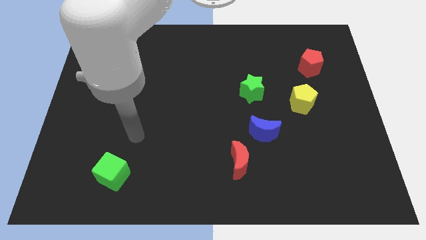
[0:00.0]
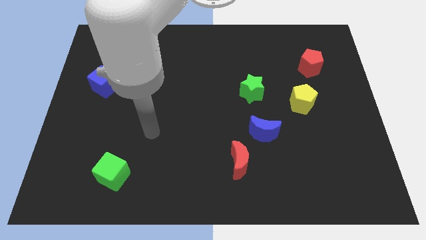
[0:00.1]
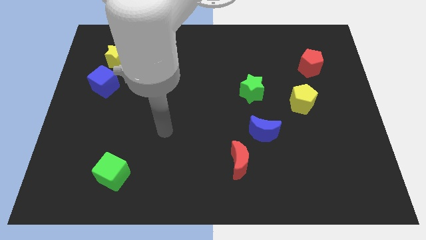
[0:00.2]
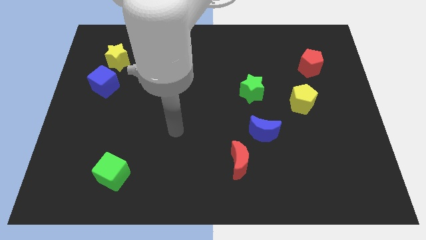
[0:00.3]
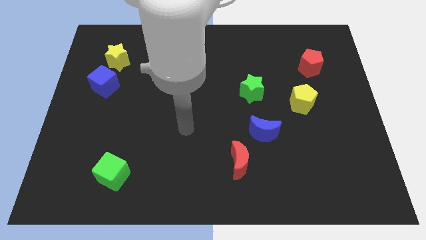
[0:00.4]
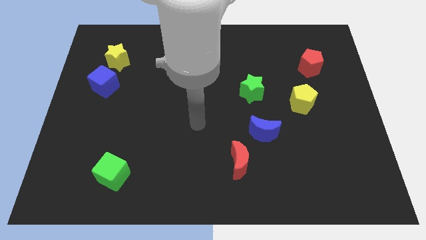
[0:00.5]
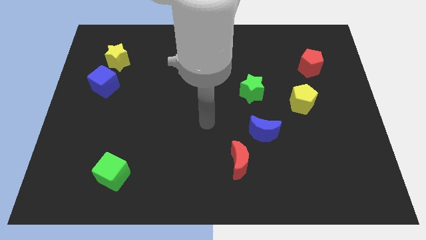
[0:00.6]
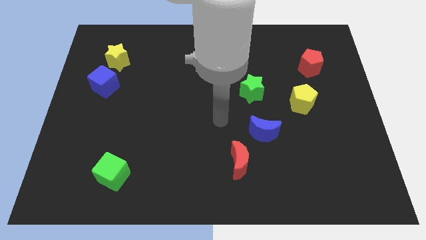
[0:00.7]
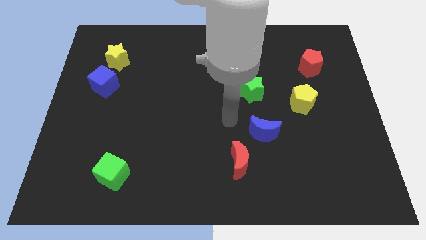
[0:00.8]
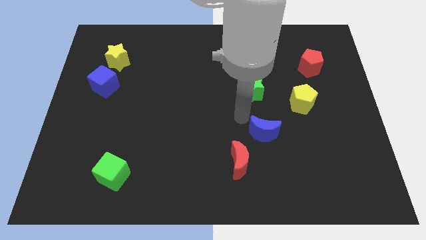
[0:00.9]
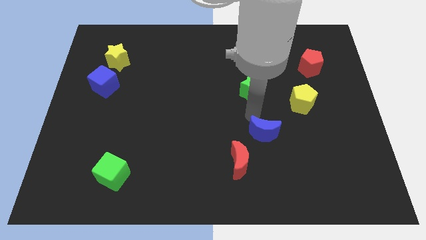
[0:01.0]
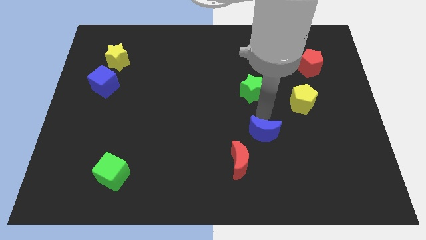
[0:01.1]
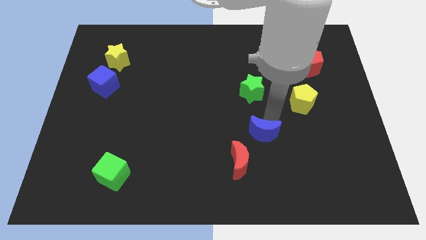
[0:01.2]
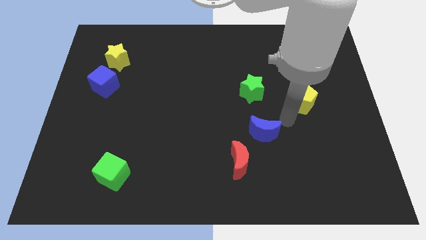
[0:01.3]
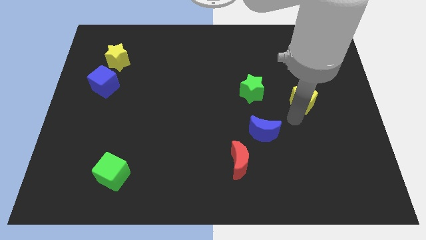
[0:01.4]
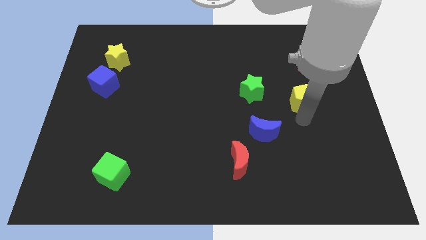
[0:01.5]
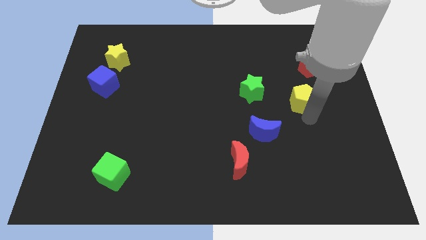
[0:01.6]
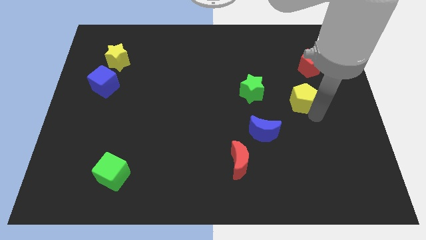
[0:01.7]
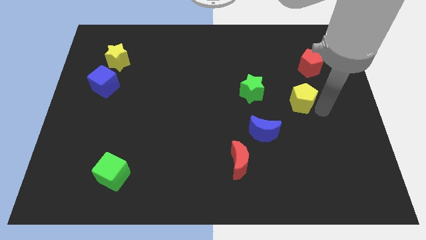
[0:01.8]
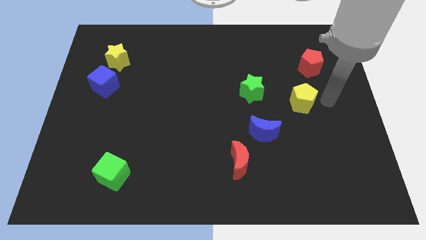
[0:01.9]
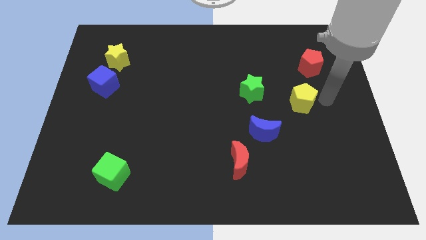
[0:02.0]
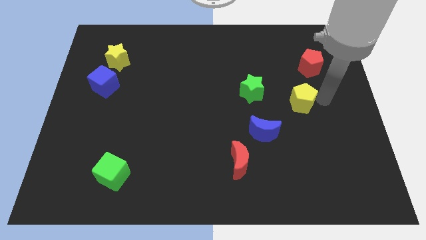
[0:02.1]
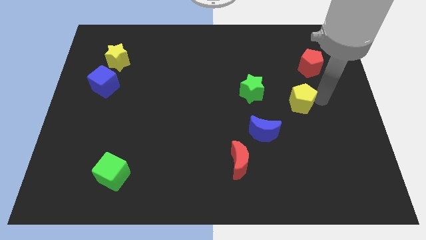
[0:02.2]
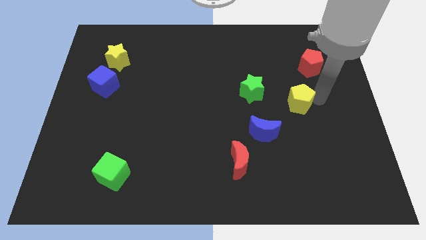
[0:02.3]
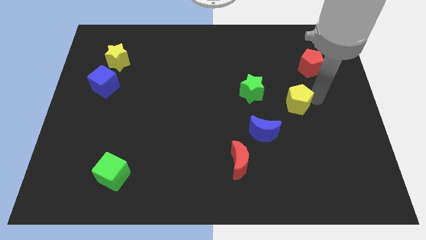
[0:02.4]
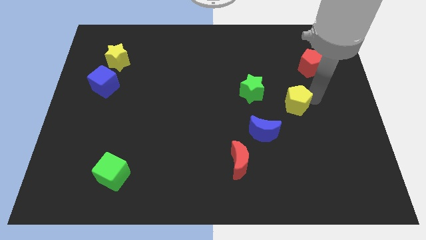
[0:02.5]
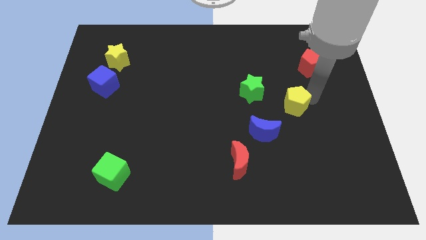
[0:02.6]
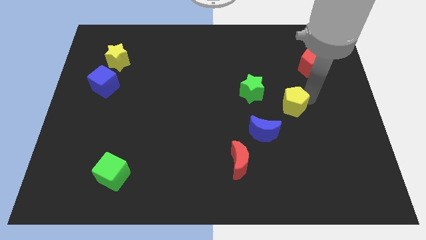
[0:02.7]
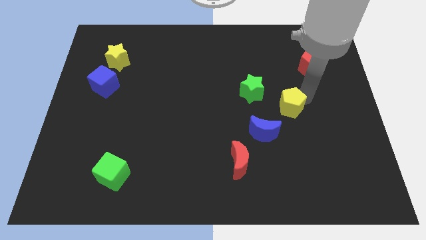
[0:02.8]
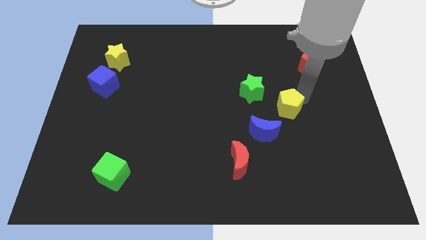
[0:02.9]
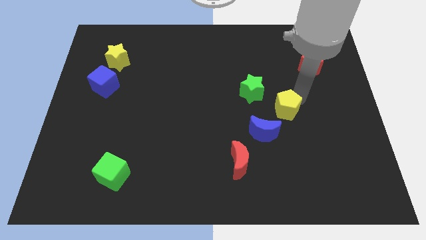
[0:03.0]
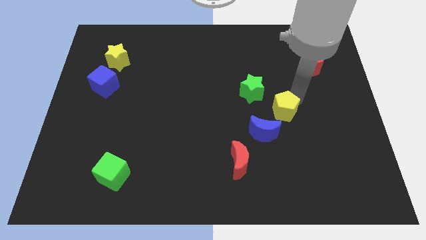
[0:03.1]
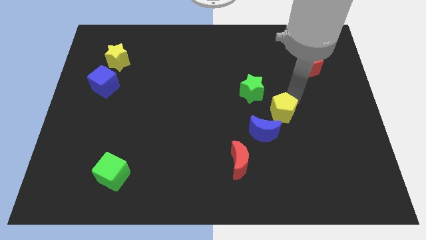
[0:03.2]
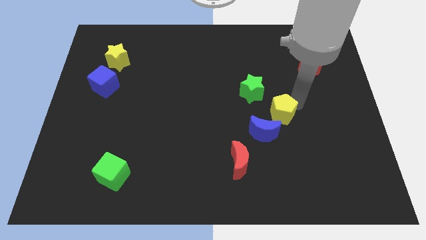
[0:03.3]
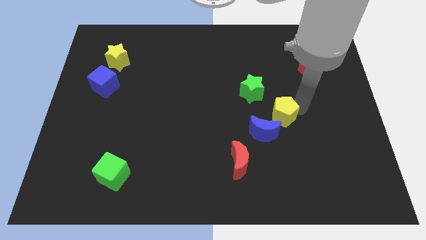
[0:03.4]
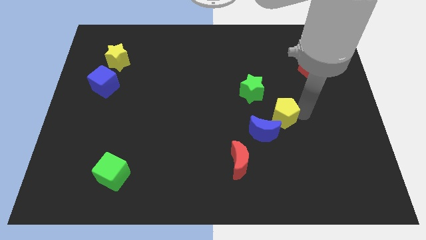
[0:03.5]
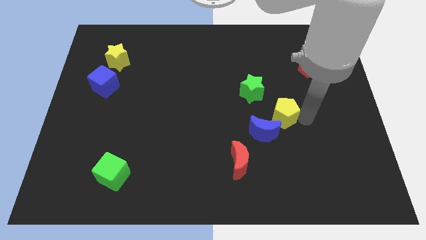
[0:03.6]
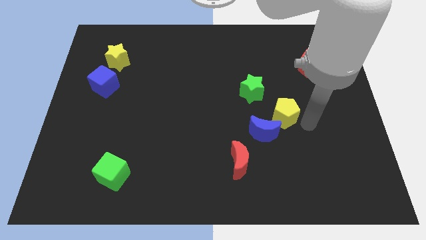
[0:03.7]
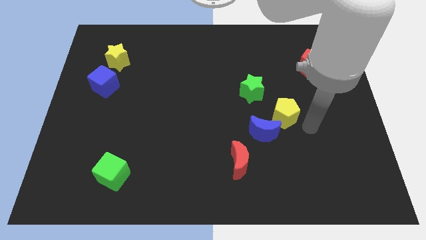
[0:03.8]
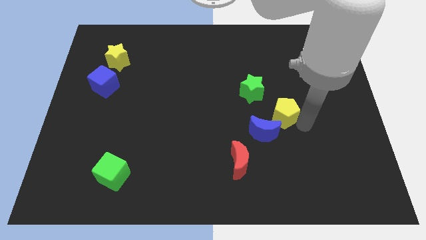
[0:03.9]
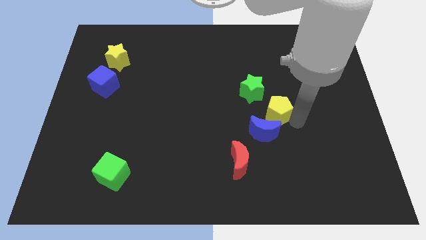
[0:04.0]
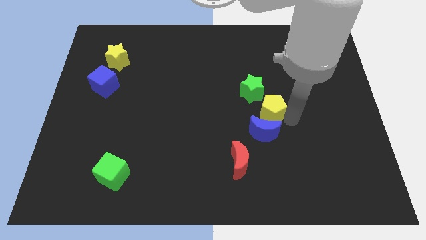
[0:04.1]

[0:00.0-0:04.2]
move the yellow pentagon to the left a little bit

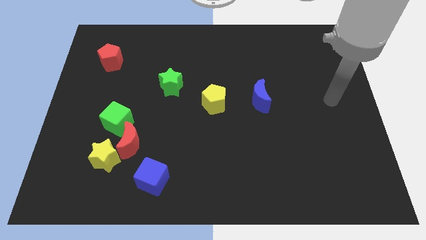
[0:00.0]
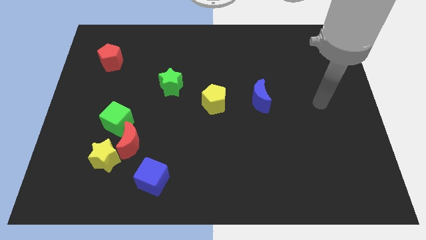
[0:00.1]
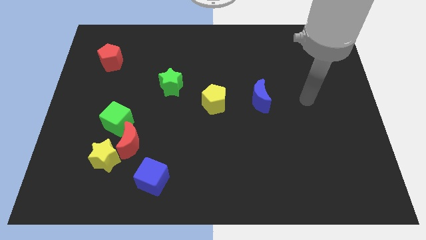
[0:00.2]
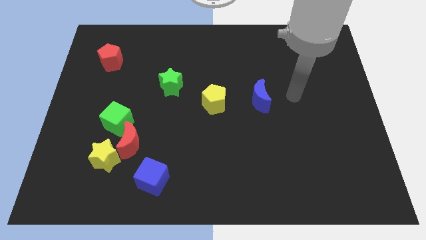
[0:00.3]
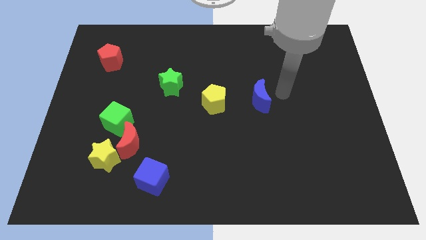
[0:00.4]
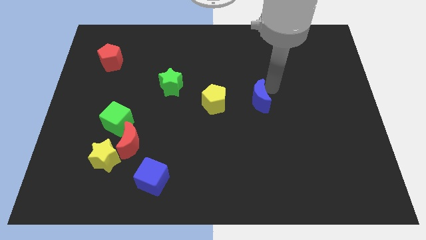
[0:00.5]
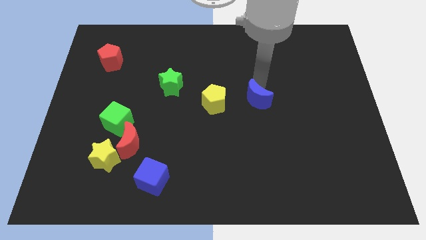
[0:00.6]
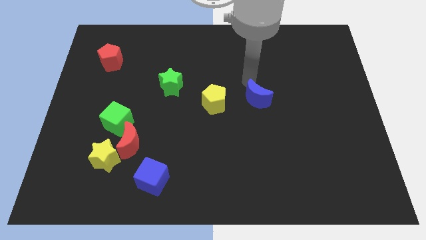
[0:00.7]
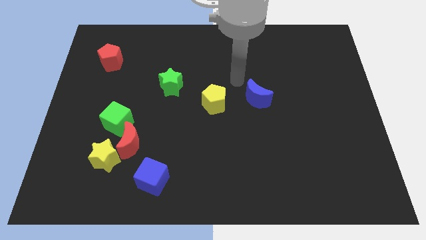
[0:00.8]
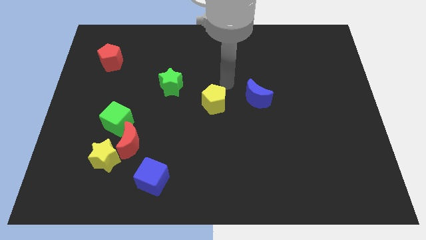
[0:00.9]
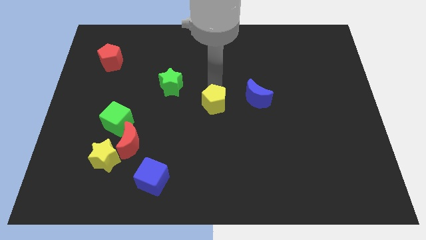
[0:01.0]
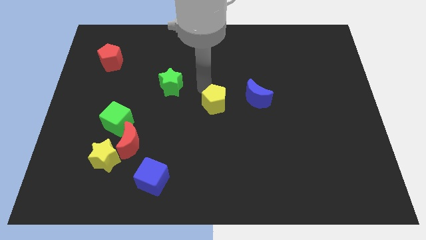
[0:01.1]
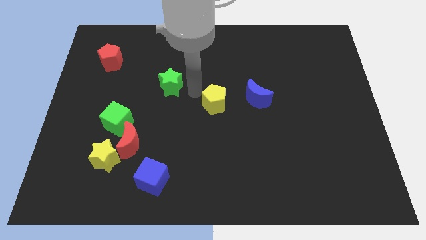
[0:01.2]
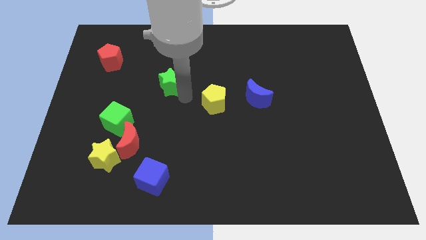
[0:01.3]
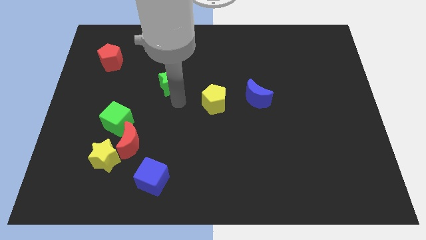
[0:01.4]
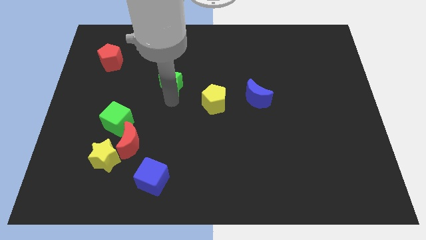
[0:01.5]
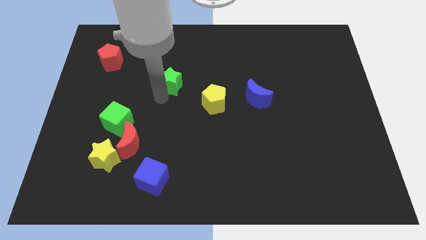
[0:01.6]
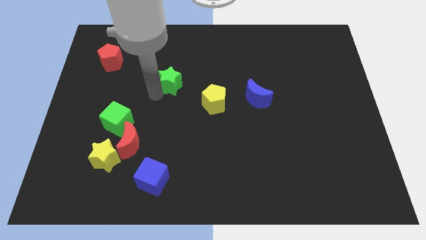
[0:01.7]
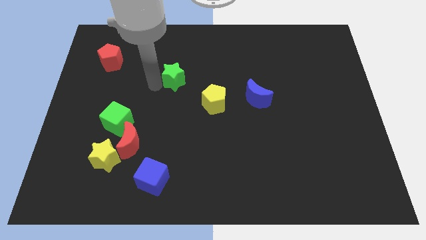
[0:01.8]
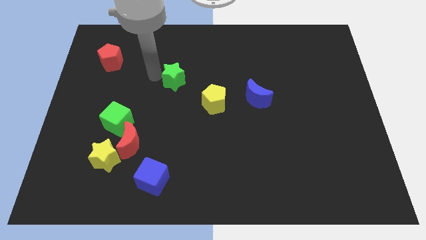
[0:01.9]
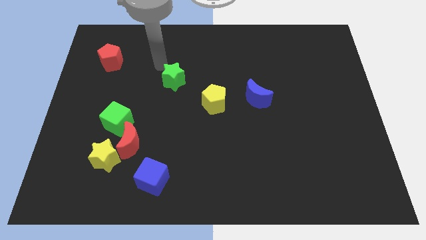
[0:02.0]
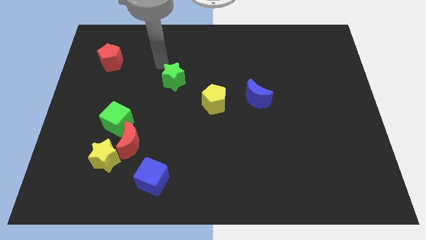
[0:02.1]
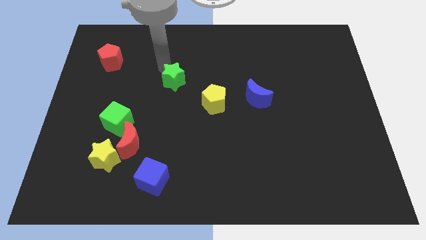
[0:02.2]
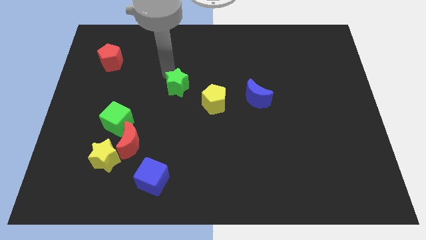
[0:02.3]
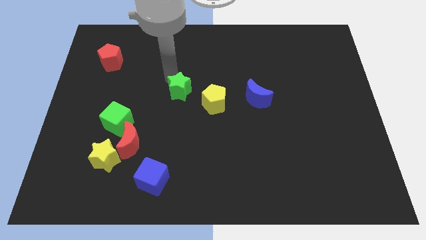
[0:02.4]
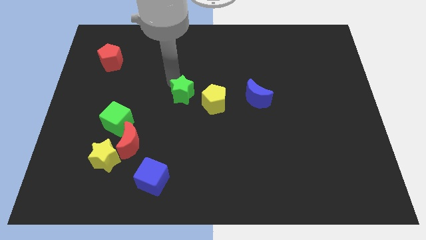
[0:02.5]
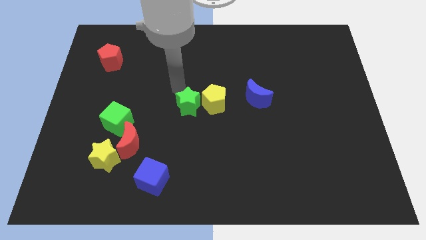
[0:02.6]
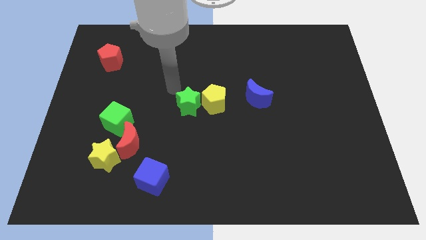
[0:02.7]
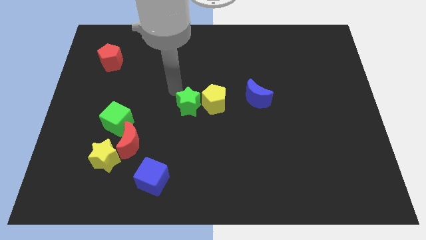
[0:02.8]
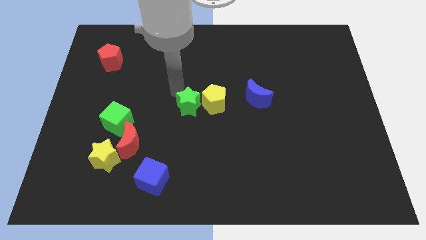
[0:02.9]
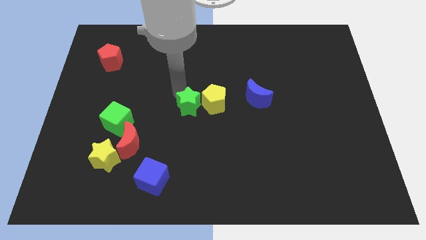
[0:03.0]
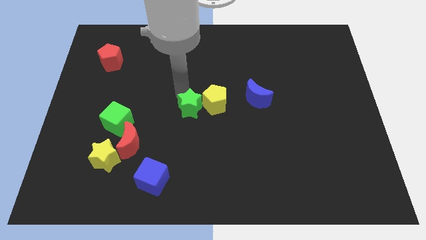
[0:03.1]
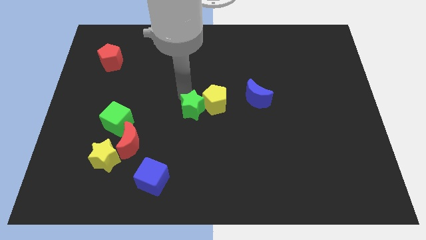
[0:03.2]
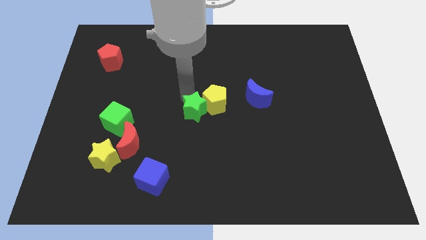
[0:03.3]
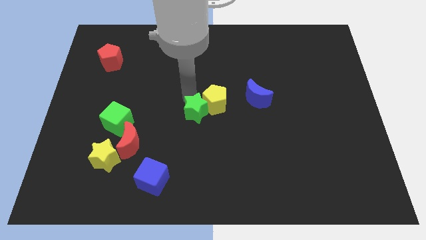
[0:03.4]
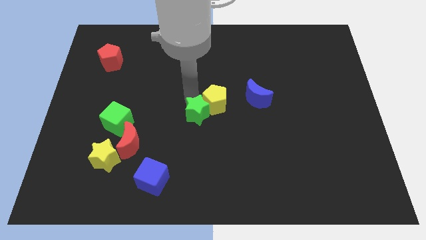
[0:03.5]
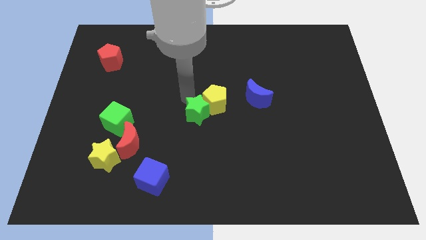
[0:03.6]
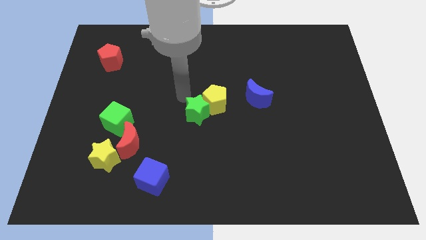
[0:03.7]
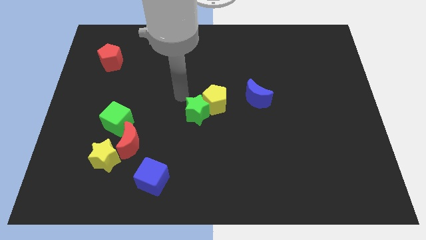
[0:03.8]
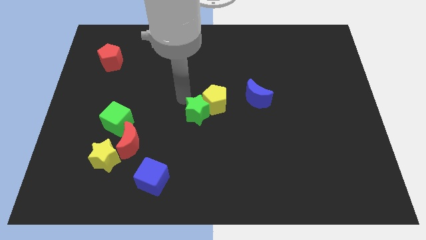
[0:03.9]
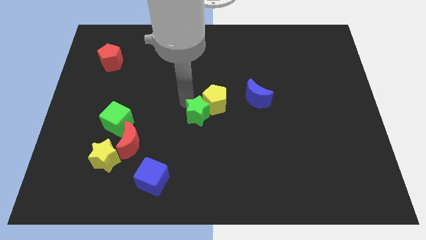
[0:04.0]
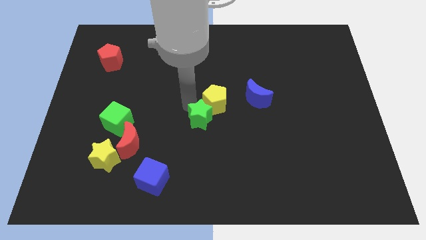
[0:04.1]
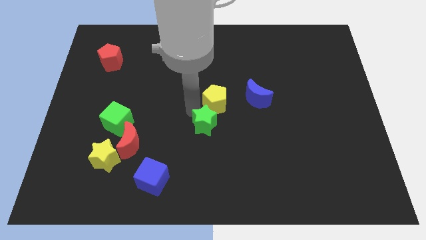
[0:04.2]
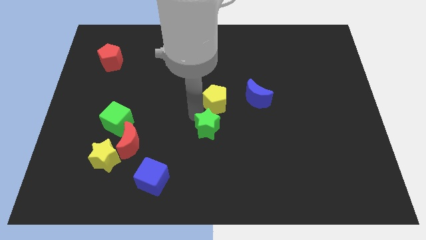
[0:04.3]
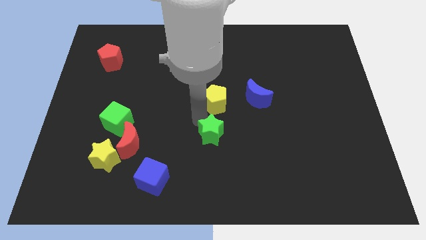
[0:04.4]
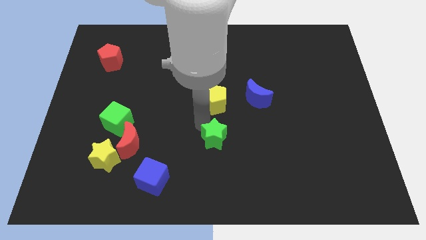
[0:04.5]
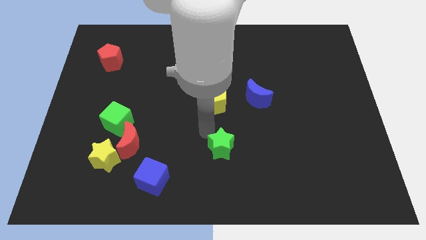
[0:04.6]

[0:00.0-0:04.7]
slide the green star down and then right
